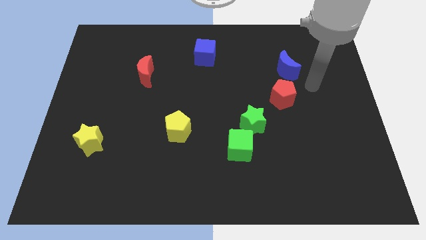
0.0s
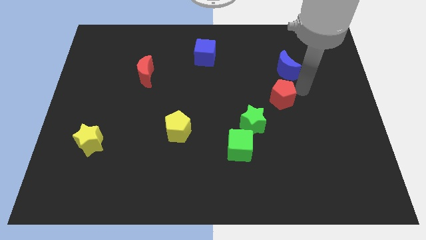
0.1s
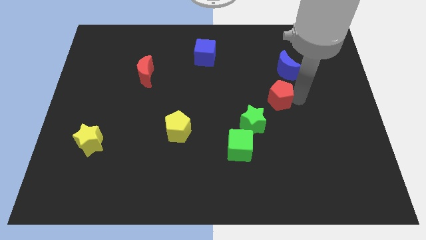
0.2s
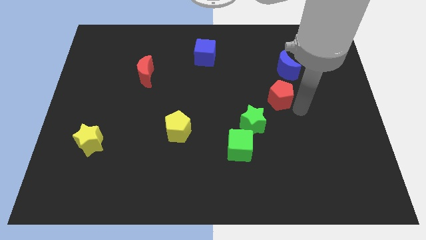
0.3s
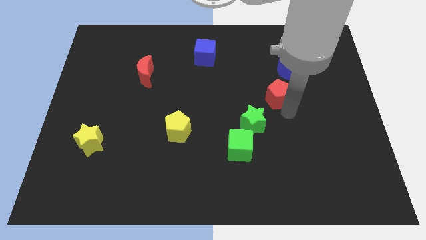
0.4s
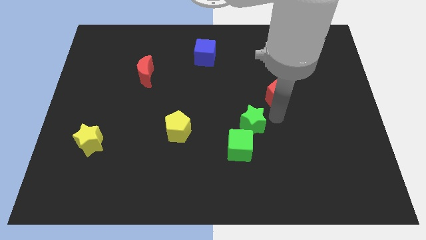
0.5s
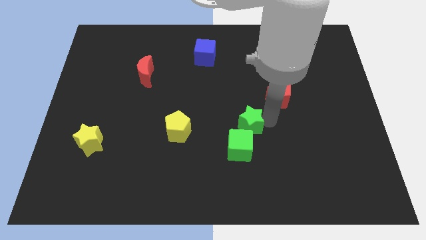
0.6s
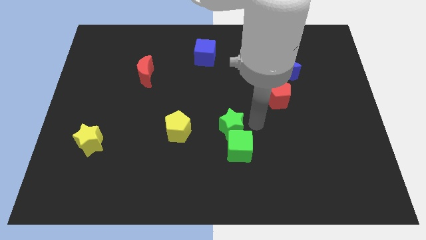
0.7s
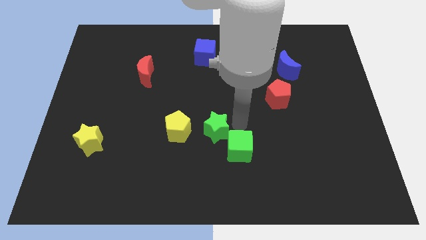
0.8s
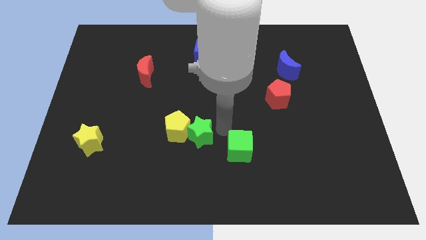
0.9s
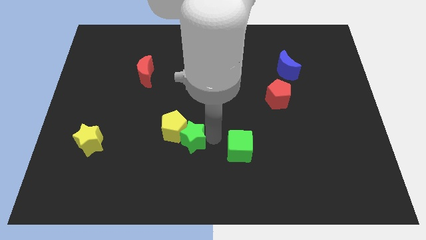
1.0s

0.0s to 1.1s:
separate the green cube from the green star

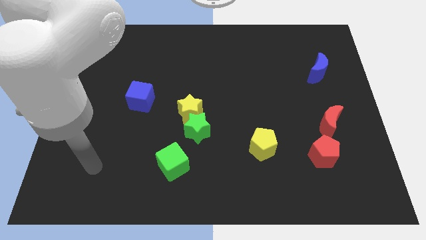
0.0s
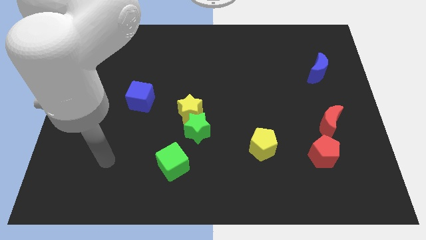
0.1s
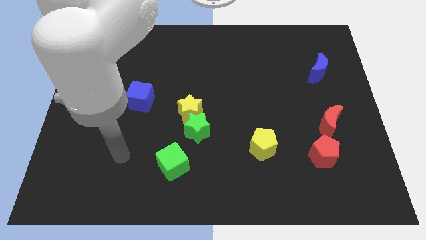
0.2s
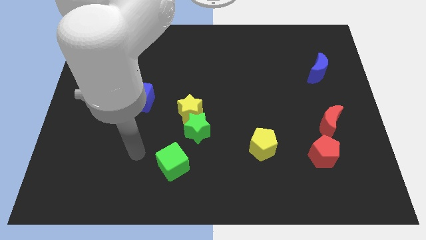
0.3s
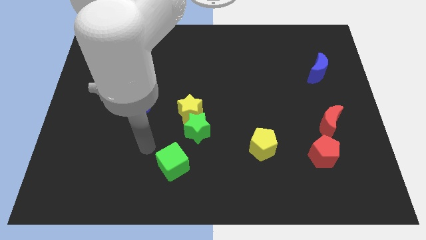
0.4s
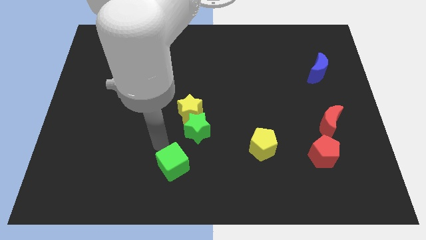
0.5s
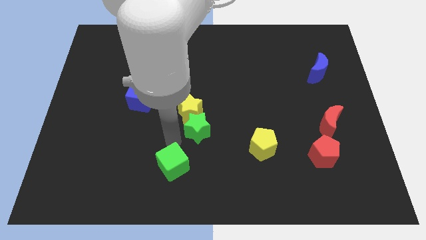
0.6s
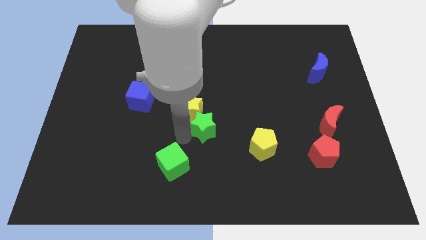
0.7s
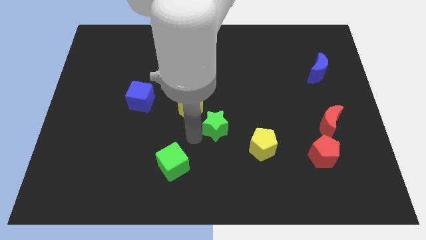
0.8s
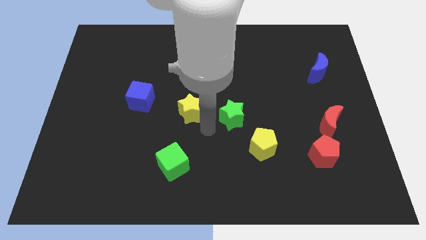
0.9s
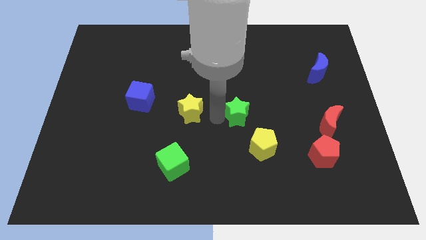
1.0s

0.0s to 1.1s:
pull the yellow star apart from the green star

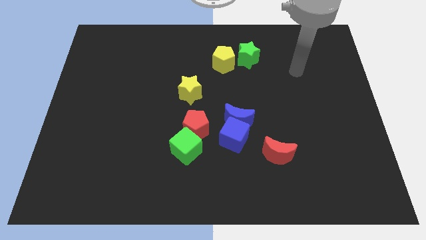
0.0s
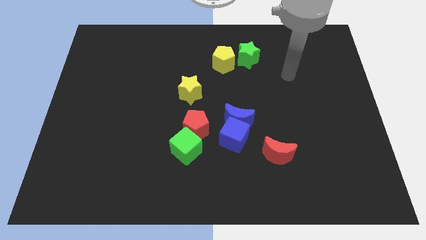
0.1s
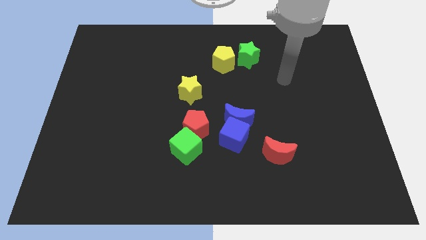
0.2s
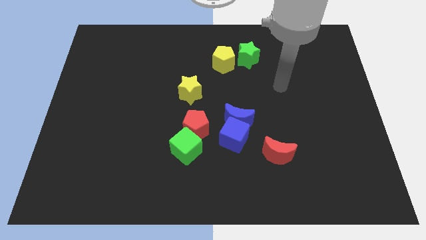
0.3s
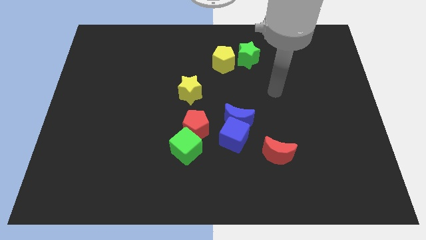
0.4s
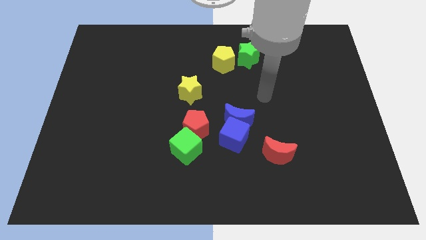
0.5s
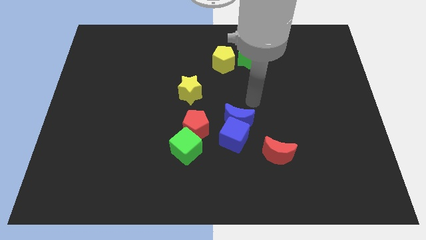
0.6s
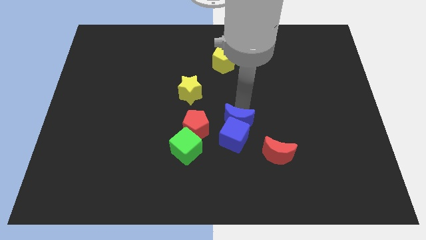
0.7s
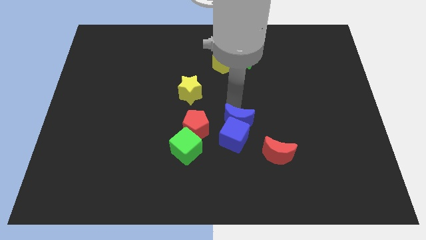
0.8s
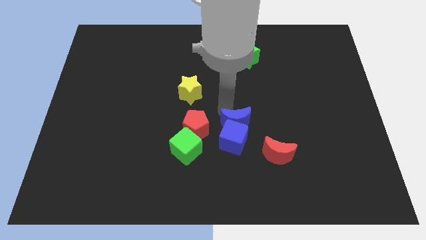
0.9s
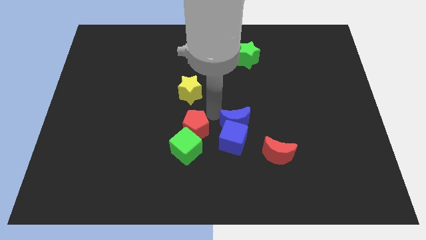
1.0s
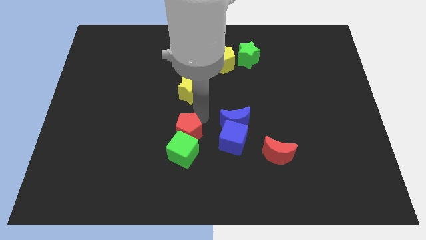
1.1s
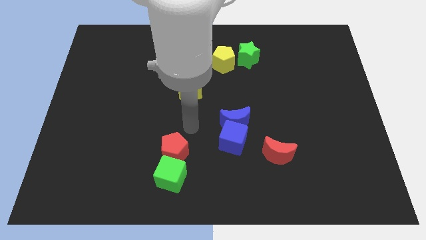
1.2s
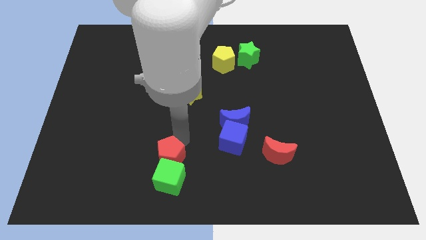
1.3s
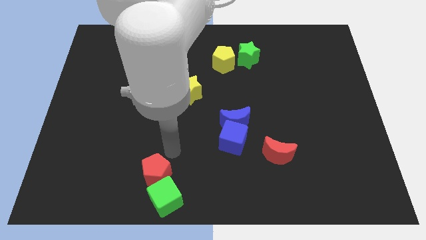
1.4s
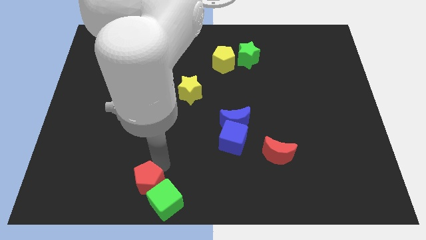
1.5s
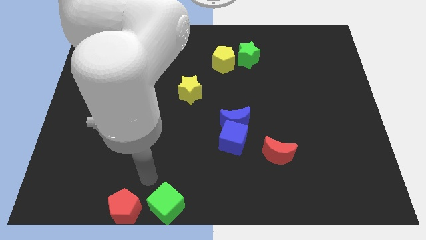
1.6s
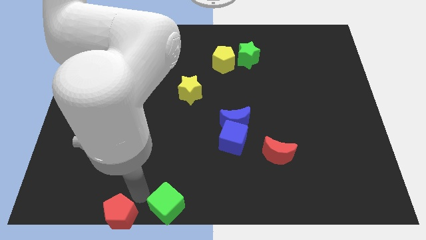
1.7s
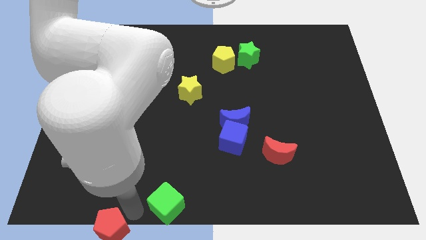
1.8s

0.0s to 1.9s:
move the green cube away from the red pentagon

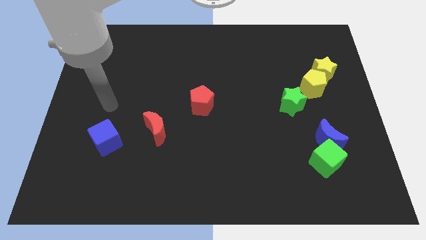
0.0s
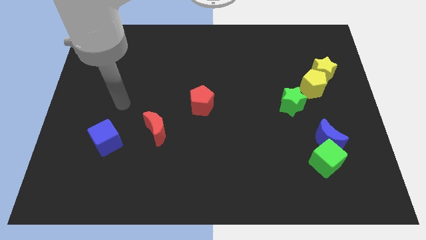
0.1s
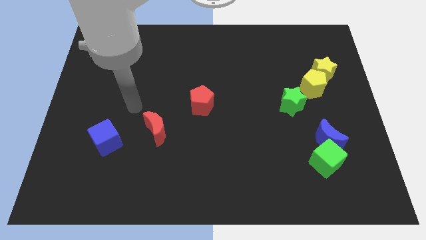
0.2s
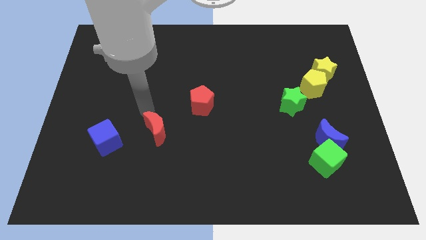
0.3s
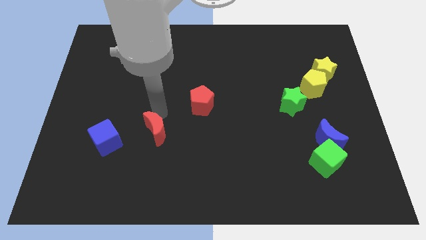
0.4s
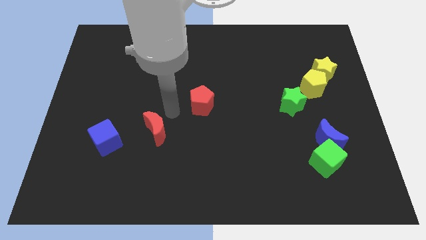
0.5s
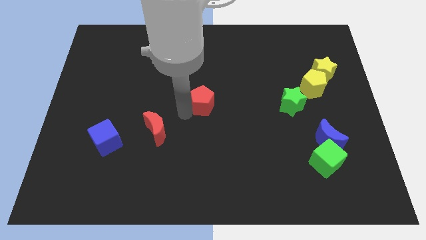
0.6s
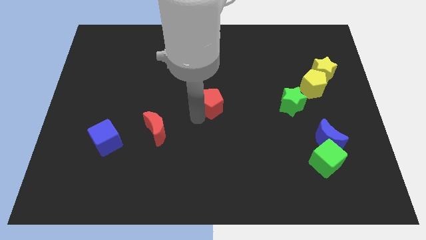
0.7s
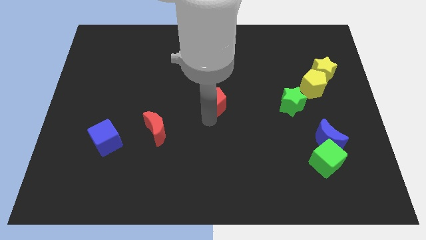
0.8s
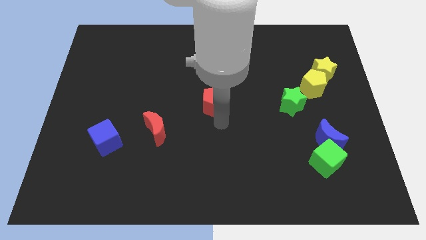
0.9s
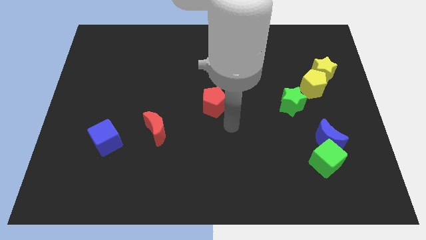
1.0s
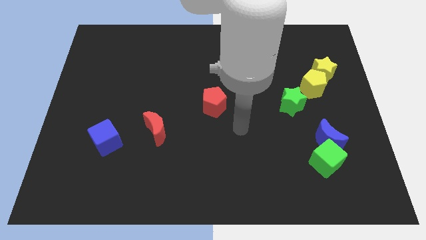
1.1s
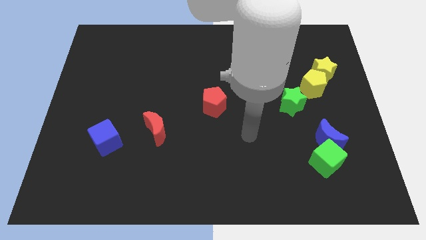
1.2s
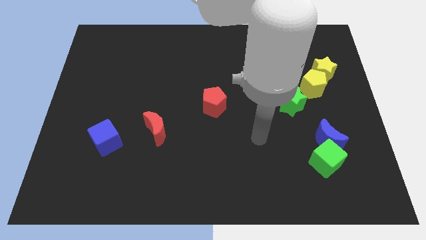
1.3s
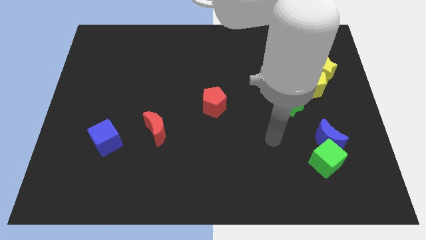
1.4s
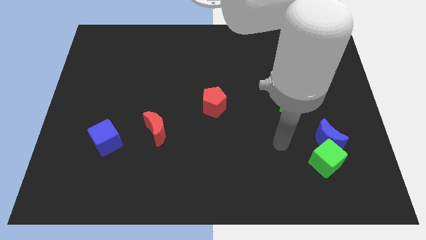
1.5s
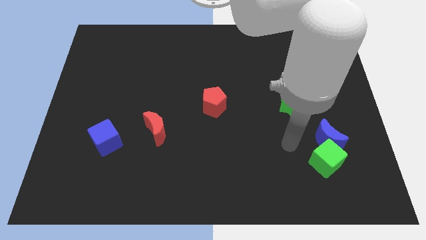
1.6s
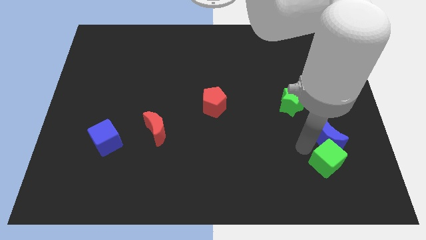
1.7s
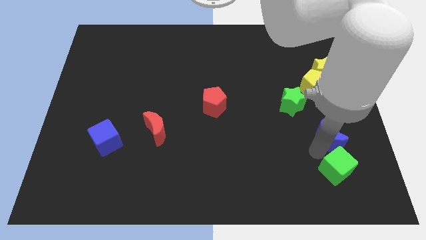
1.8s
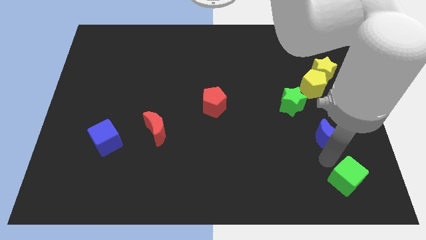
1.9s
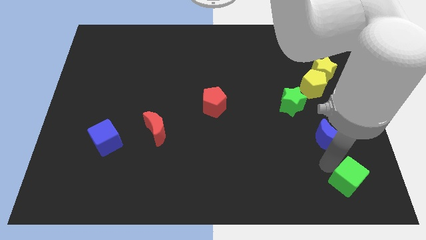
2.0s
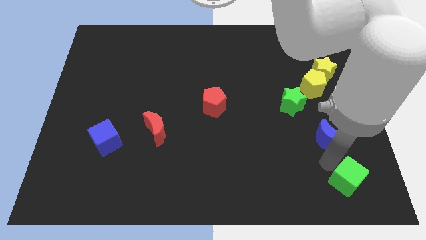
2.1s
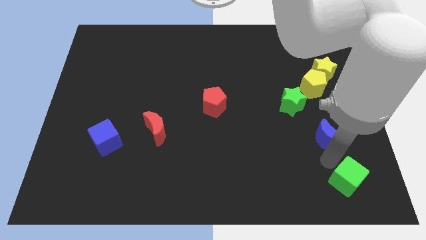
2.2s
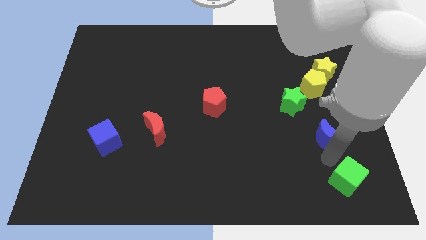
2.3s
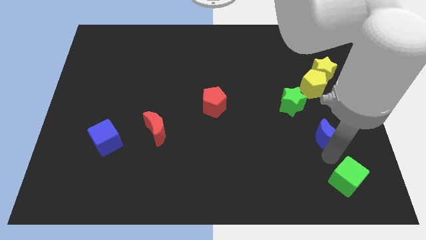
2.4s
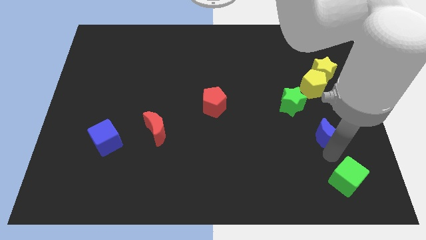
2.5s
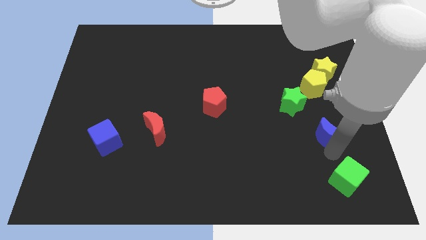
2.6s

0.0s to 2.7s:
separate the blue moon from the green cube

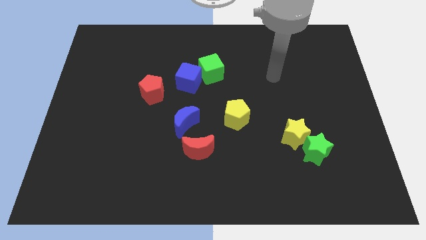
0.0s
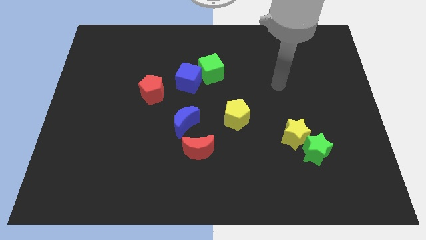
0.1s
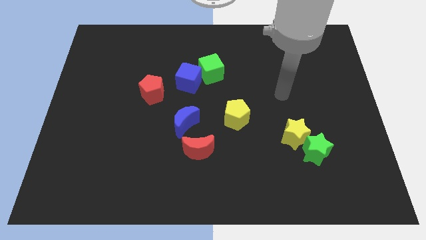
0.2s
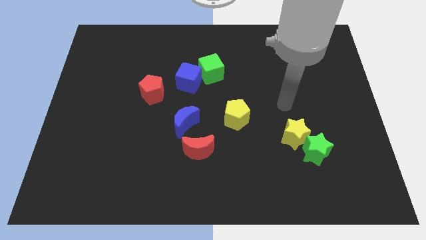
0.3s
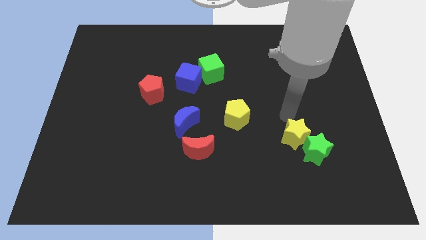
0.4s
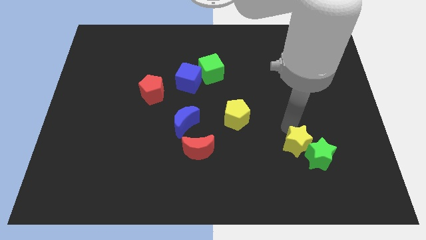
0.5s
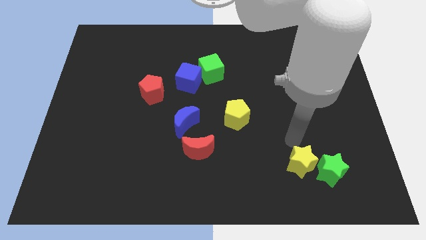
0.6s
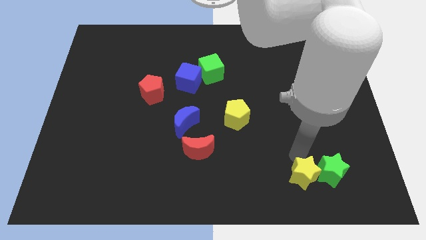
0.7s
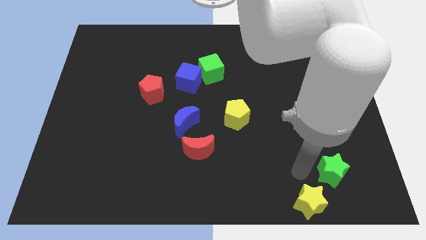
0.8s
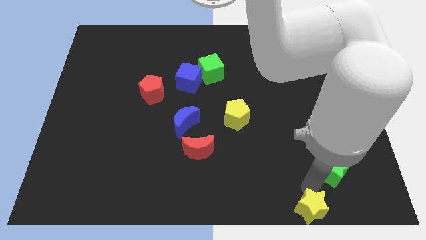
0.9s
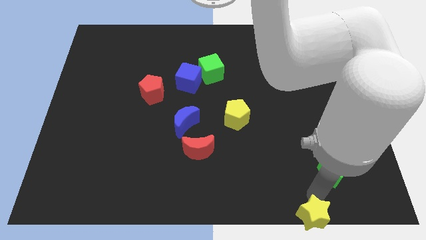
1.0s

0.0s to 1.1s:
separate the green star from the yellow star

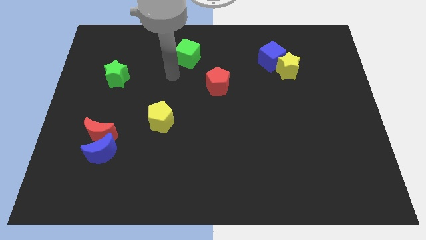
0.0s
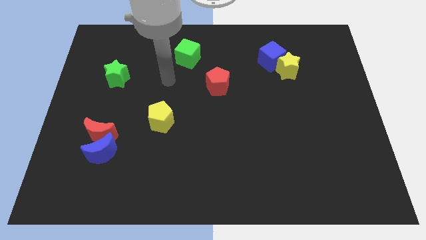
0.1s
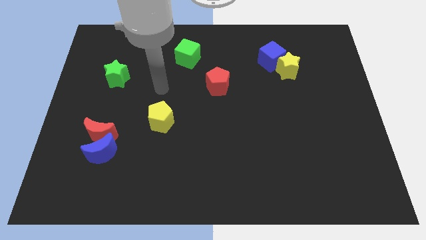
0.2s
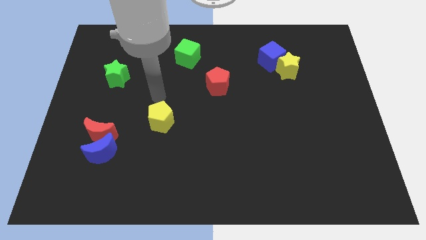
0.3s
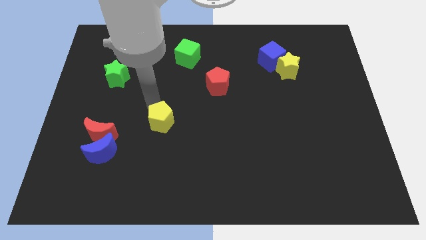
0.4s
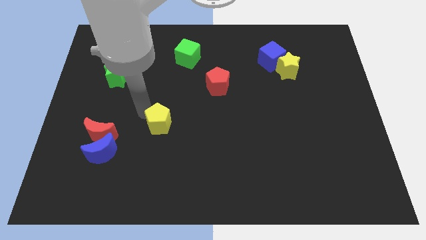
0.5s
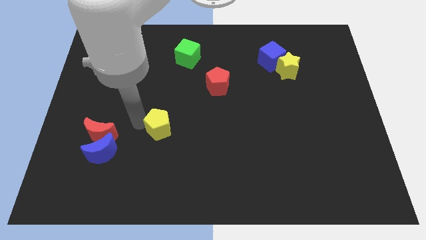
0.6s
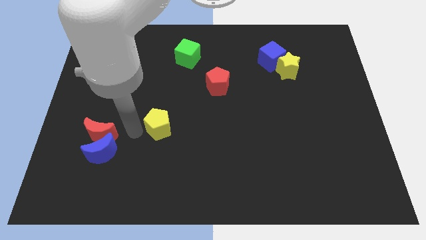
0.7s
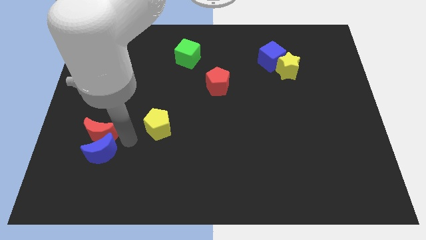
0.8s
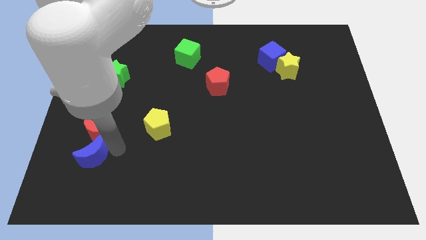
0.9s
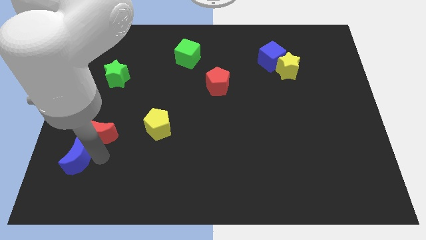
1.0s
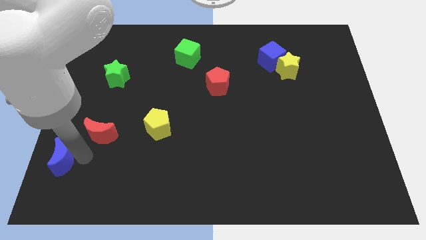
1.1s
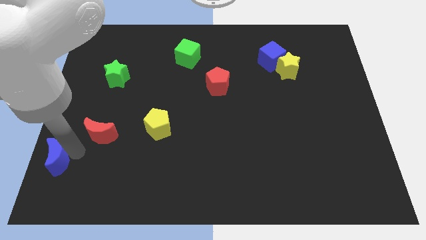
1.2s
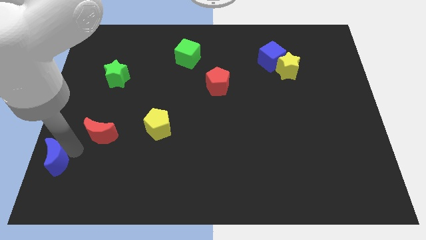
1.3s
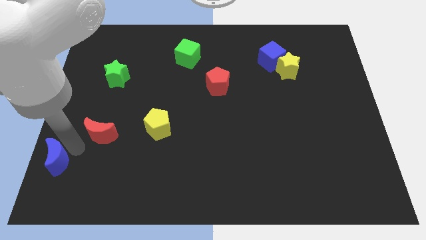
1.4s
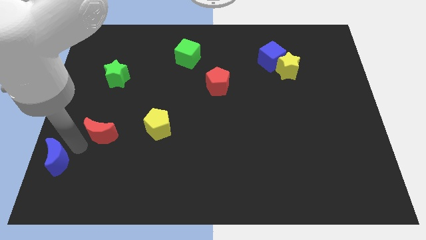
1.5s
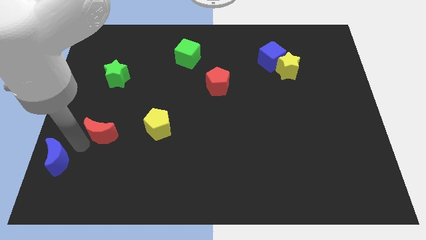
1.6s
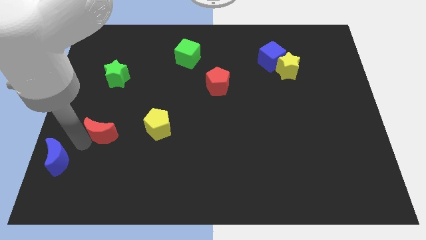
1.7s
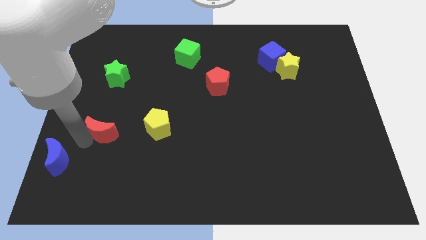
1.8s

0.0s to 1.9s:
pull the red moon apart from the blue moon
